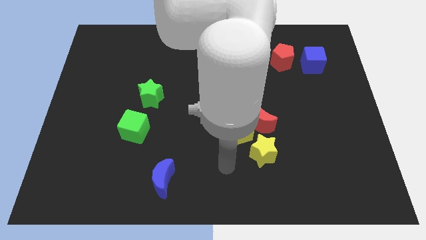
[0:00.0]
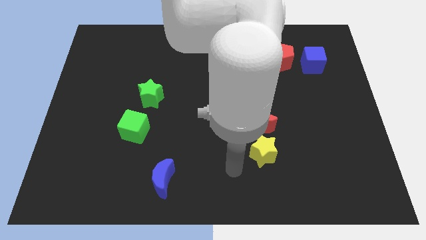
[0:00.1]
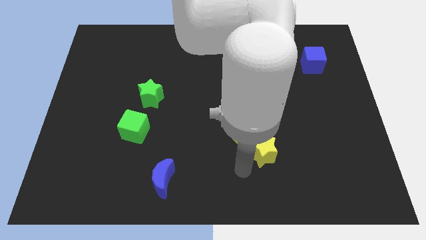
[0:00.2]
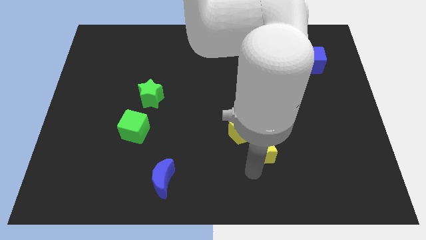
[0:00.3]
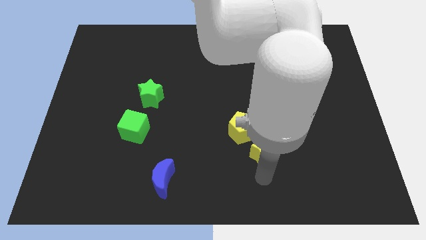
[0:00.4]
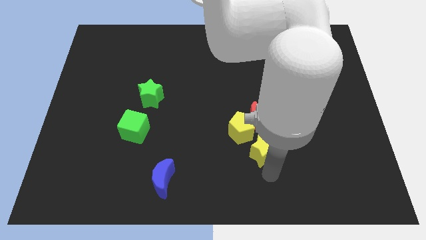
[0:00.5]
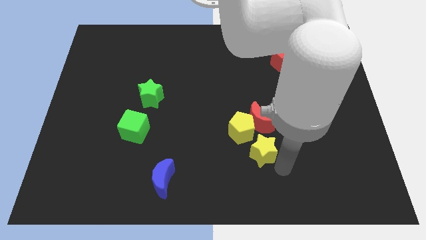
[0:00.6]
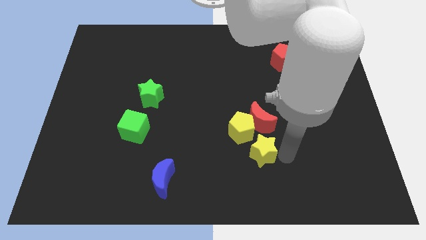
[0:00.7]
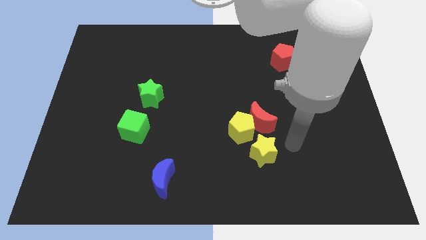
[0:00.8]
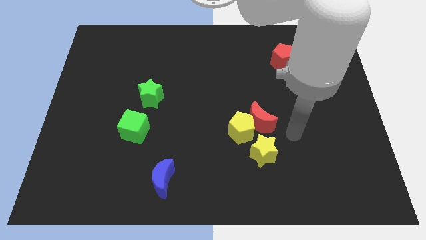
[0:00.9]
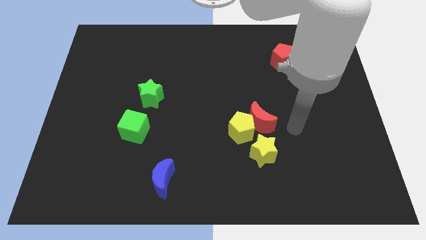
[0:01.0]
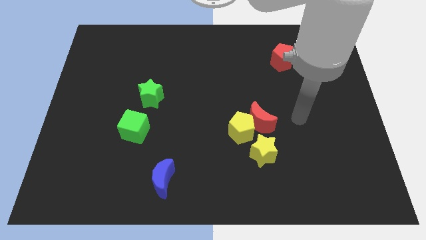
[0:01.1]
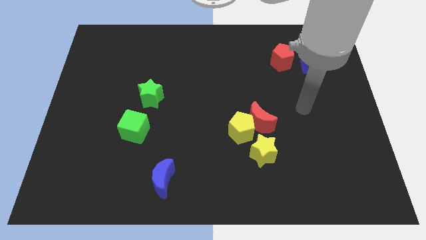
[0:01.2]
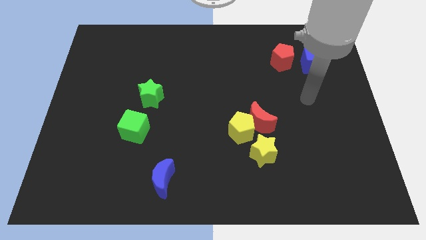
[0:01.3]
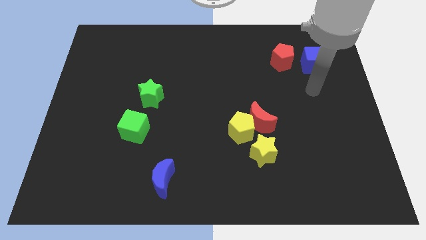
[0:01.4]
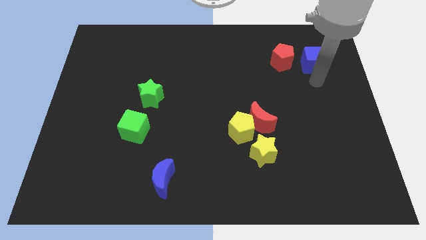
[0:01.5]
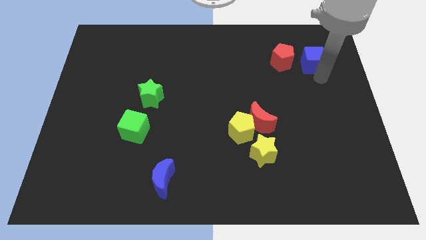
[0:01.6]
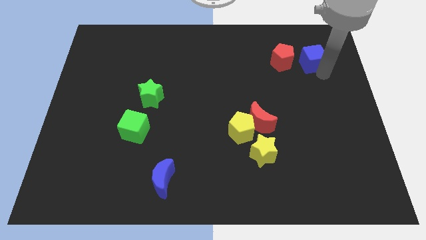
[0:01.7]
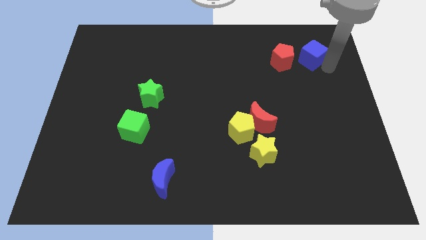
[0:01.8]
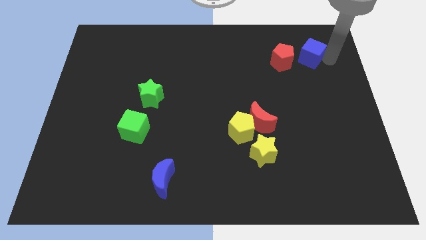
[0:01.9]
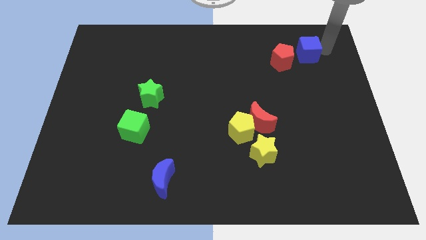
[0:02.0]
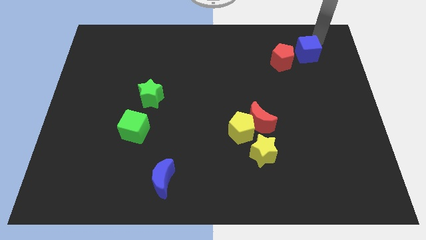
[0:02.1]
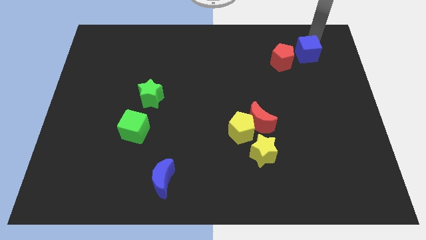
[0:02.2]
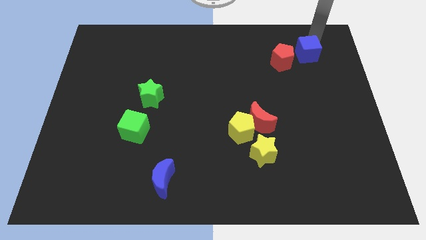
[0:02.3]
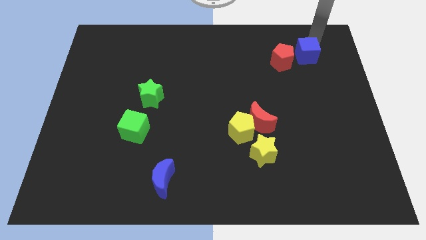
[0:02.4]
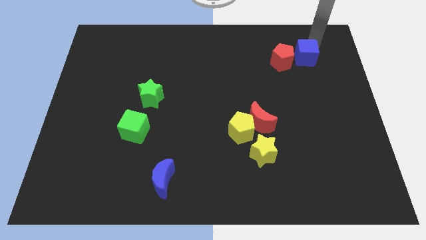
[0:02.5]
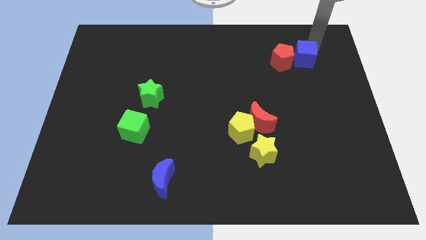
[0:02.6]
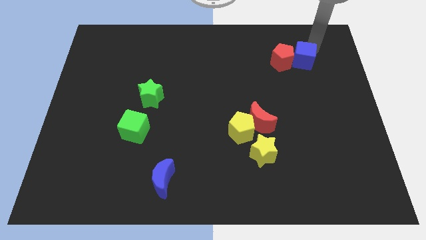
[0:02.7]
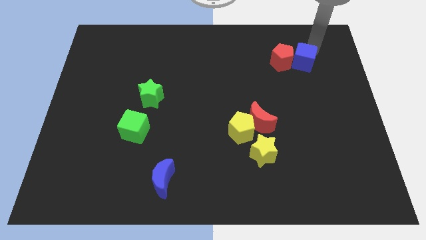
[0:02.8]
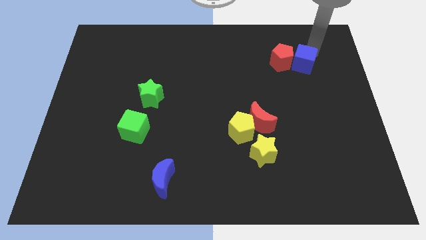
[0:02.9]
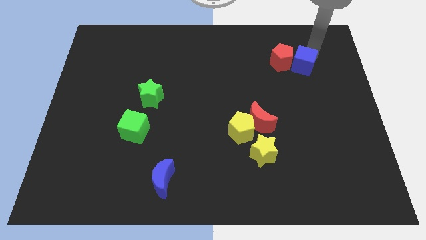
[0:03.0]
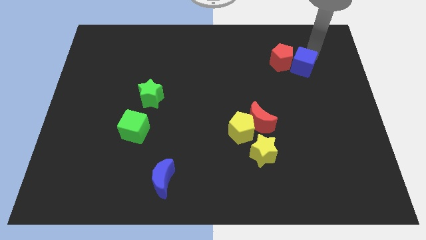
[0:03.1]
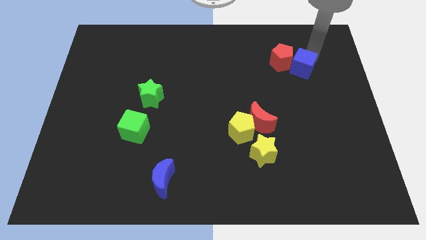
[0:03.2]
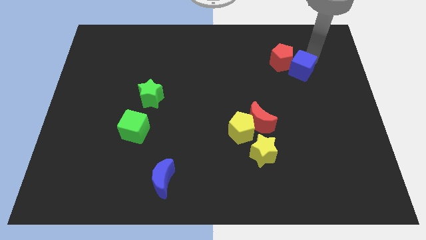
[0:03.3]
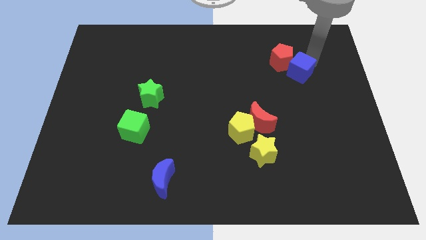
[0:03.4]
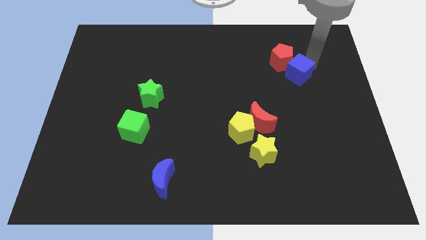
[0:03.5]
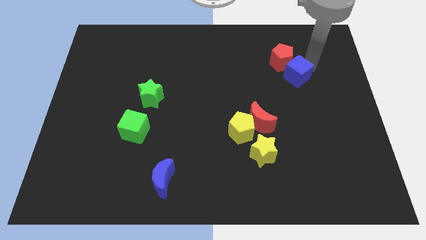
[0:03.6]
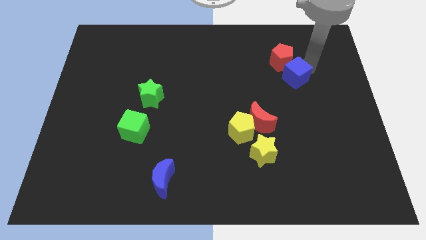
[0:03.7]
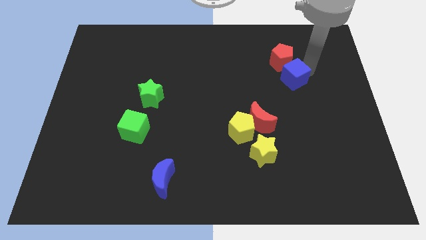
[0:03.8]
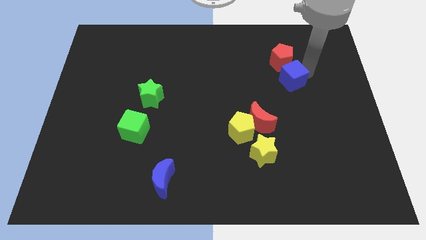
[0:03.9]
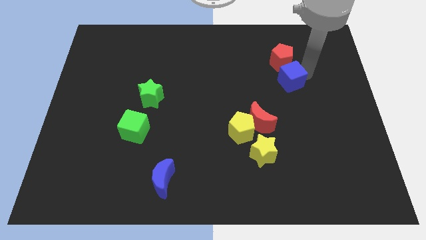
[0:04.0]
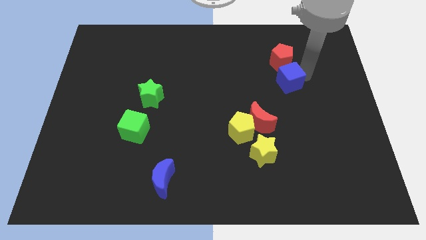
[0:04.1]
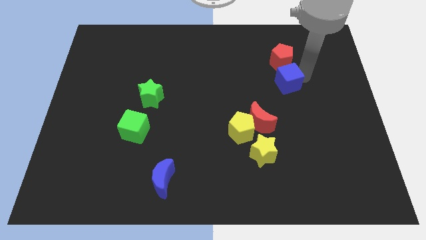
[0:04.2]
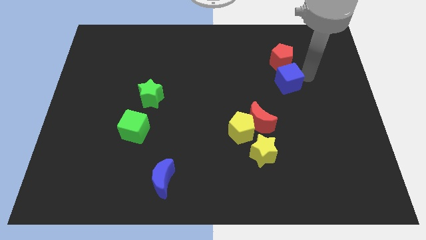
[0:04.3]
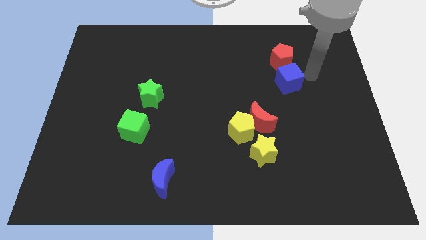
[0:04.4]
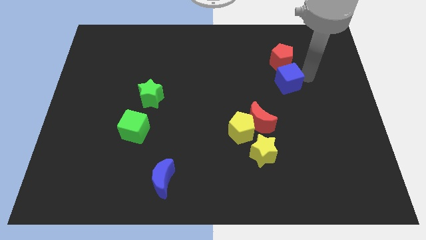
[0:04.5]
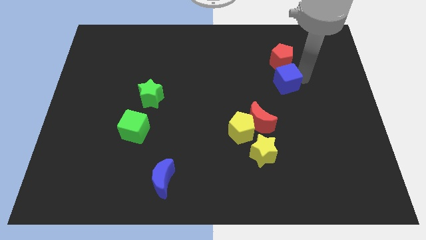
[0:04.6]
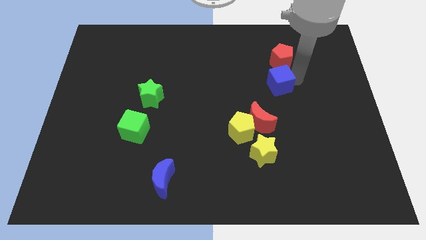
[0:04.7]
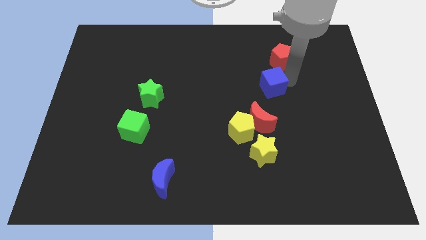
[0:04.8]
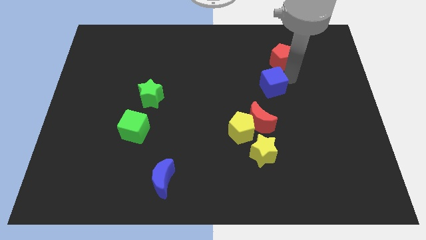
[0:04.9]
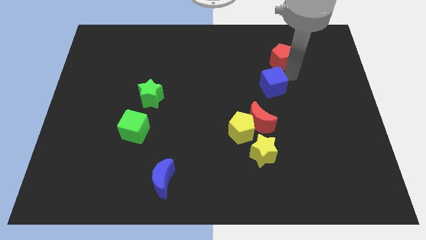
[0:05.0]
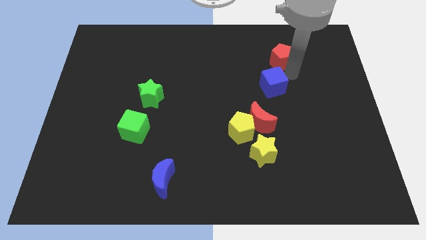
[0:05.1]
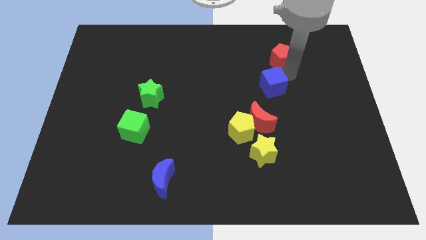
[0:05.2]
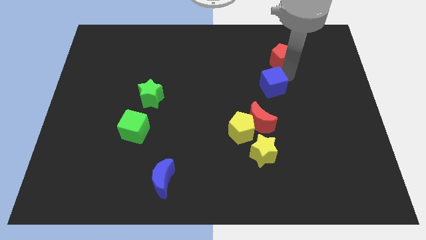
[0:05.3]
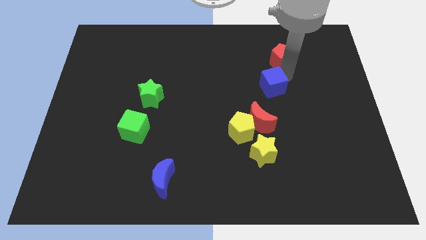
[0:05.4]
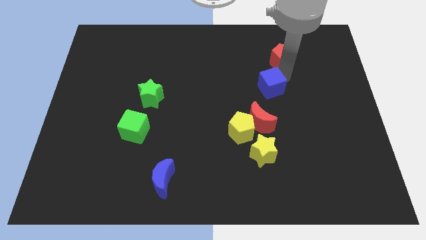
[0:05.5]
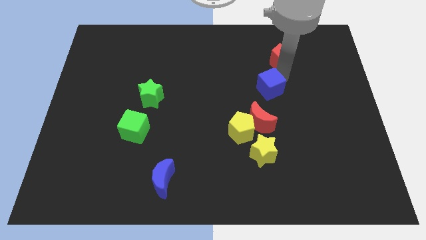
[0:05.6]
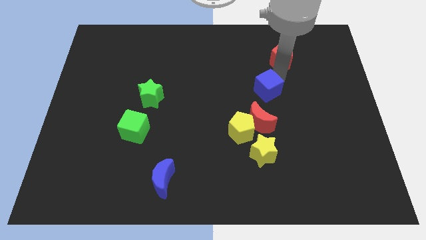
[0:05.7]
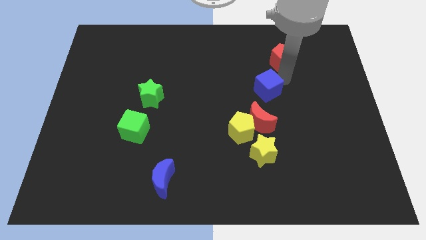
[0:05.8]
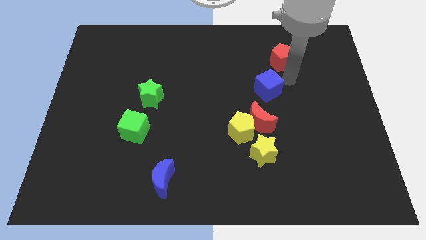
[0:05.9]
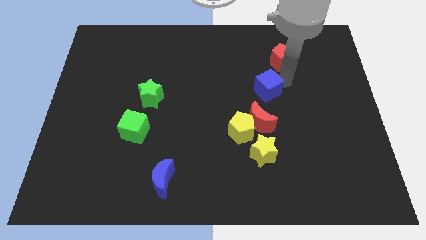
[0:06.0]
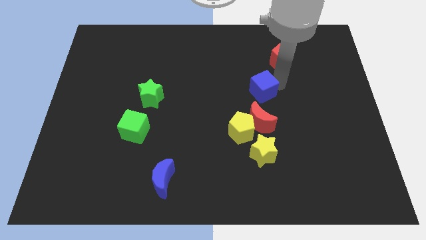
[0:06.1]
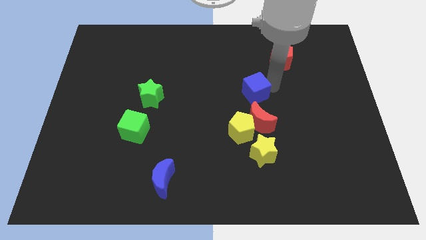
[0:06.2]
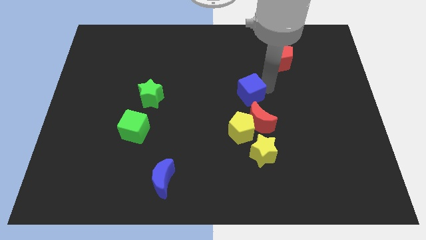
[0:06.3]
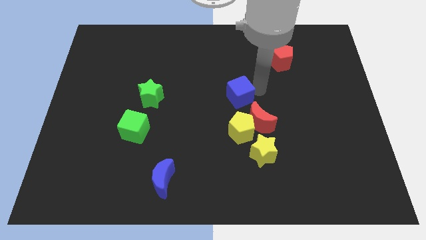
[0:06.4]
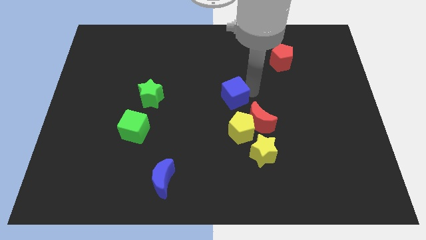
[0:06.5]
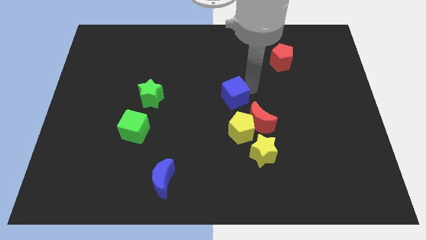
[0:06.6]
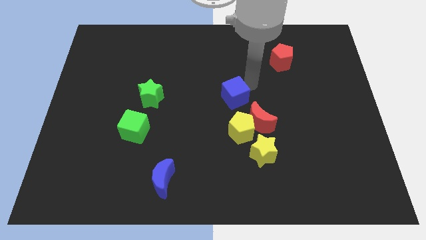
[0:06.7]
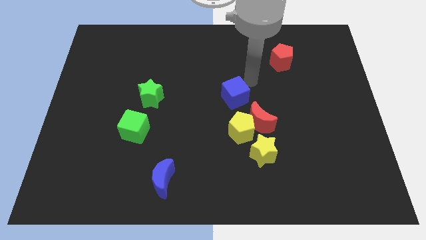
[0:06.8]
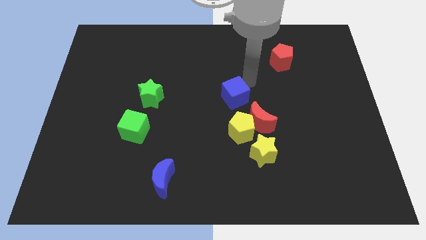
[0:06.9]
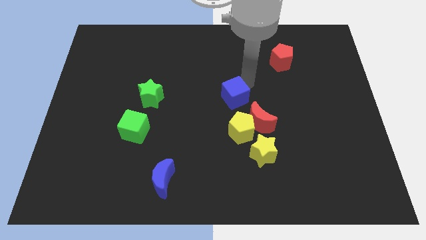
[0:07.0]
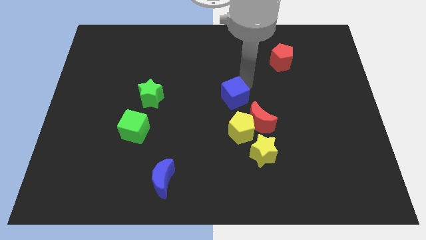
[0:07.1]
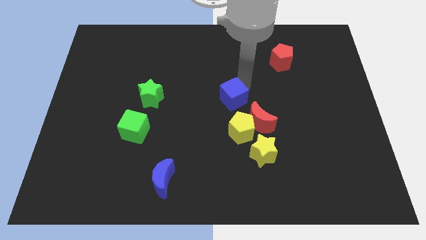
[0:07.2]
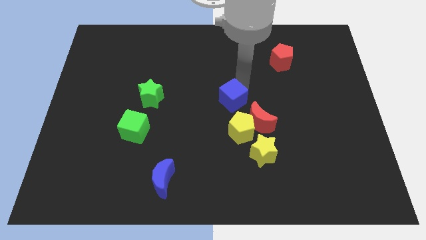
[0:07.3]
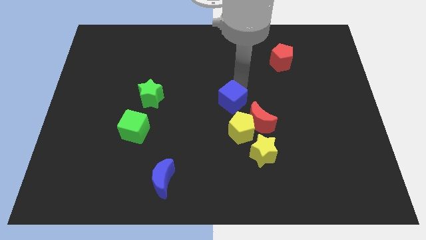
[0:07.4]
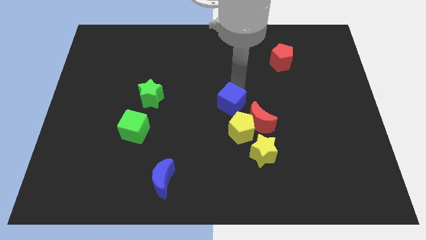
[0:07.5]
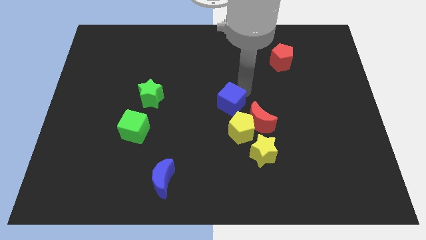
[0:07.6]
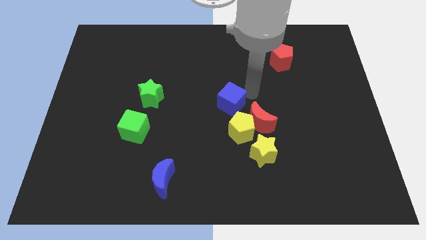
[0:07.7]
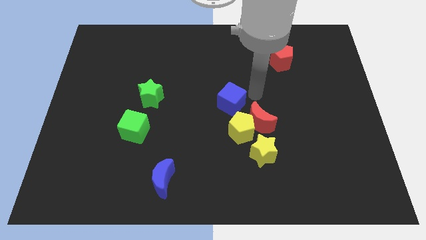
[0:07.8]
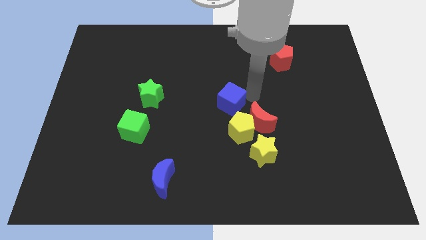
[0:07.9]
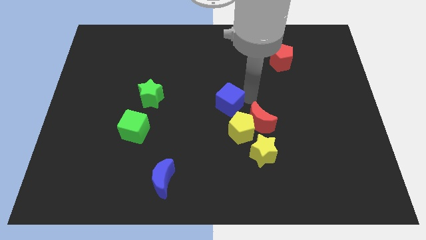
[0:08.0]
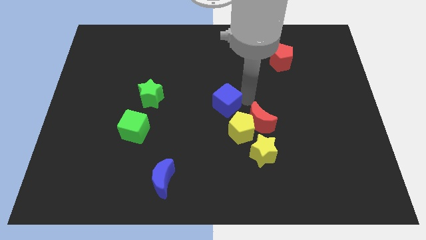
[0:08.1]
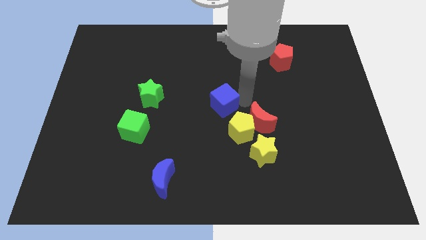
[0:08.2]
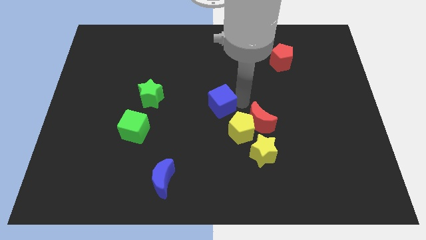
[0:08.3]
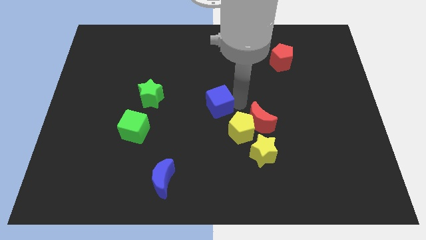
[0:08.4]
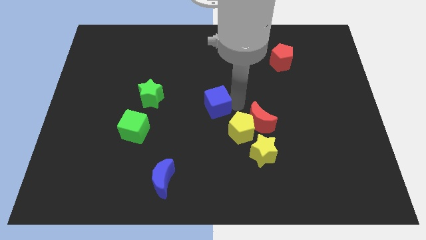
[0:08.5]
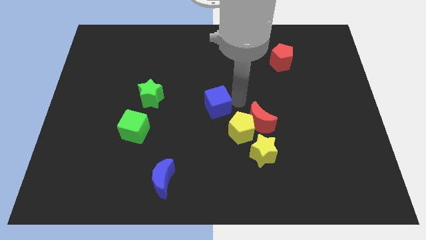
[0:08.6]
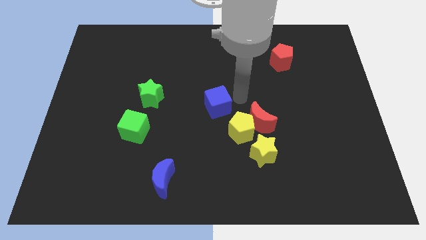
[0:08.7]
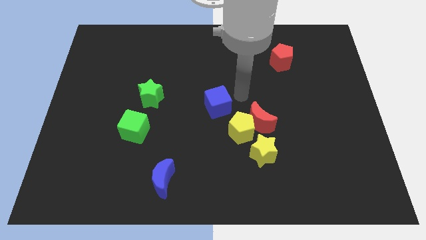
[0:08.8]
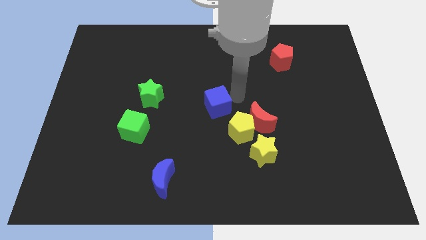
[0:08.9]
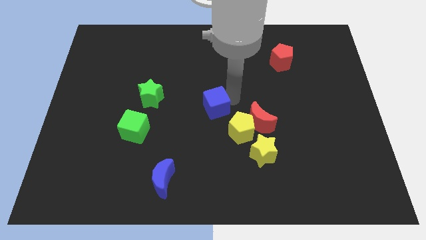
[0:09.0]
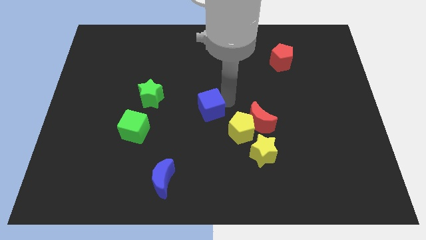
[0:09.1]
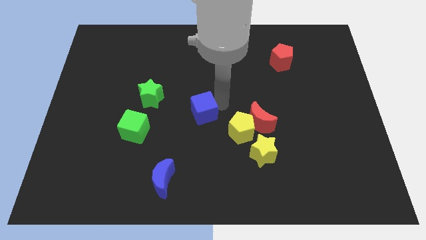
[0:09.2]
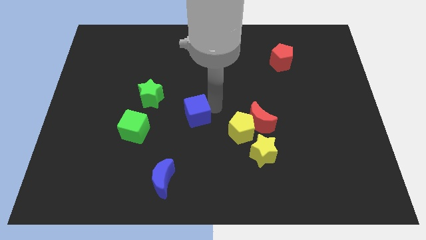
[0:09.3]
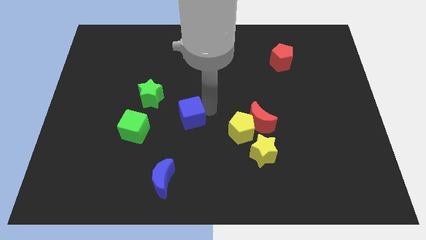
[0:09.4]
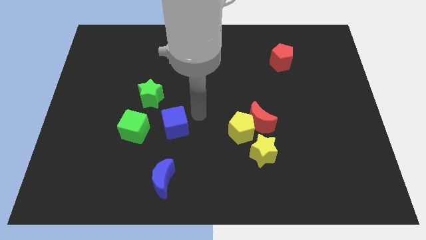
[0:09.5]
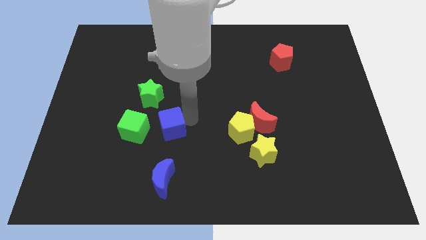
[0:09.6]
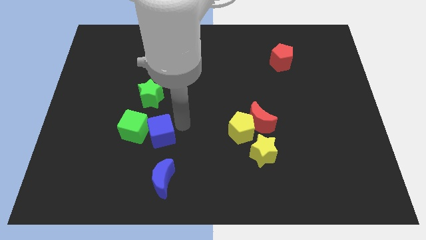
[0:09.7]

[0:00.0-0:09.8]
slide the blue cube close to the green cube
